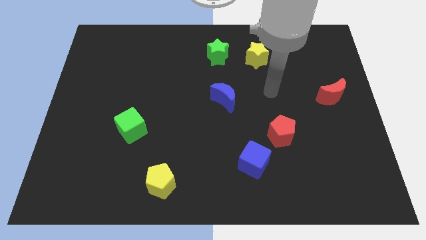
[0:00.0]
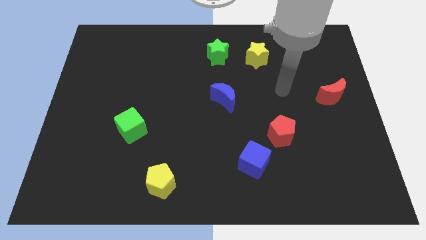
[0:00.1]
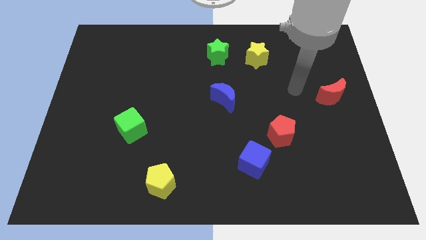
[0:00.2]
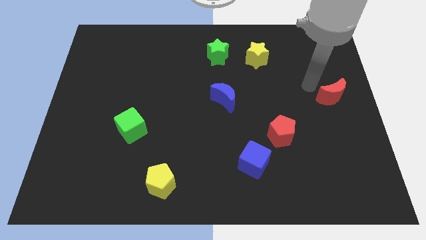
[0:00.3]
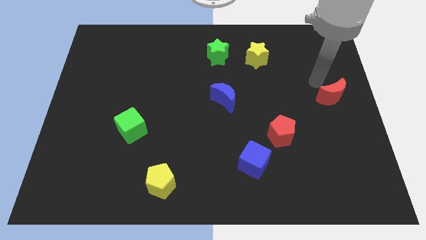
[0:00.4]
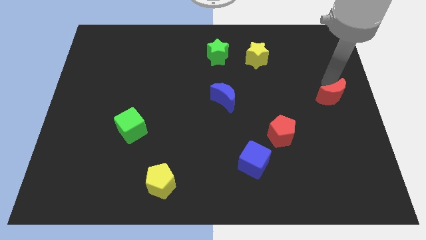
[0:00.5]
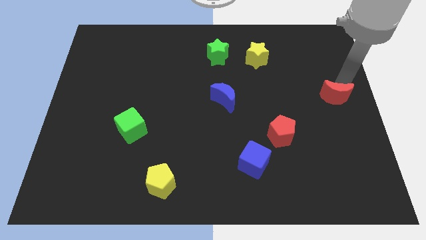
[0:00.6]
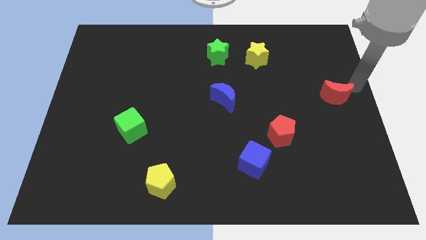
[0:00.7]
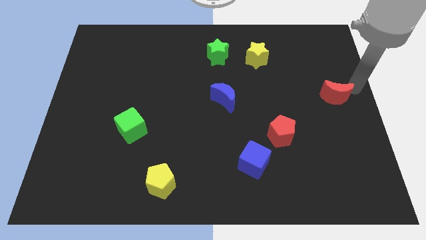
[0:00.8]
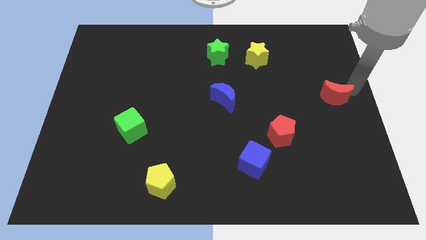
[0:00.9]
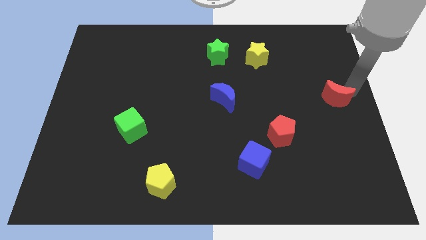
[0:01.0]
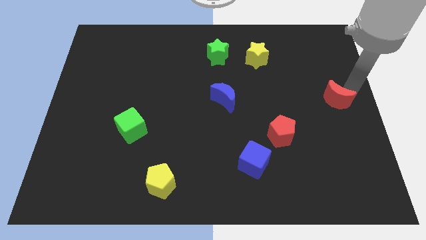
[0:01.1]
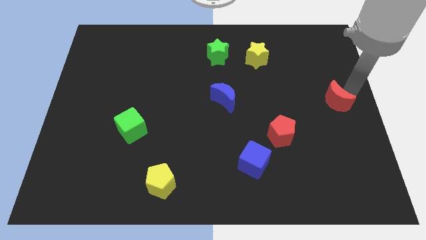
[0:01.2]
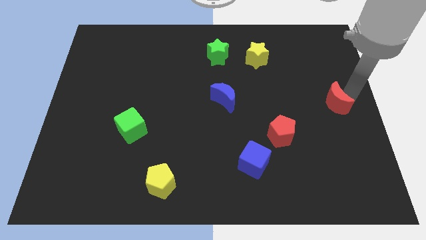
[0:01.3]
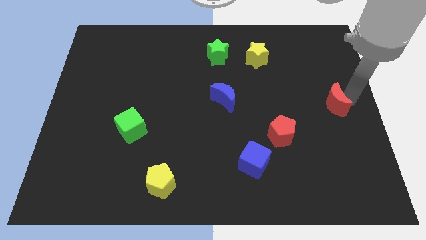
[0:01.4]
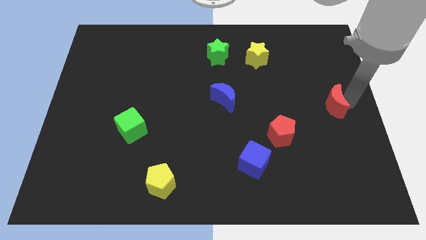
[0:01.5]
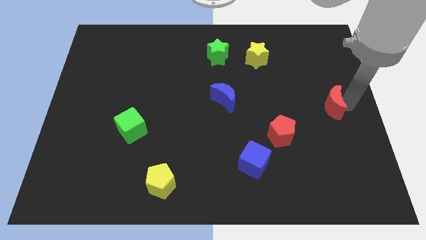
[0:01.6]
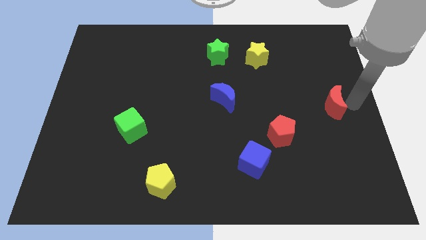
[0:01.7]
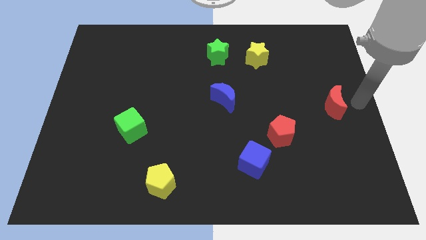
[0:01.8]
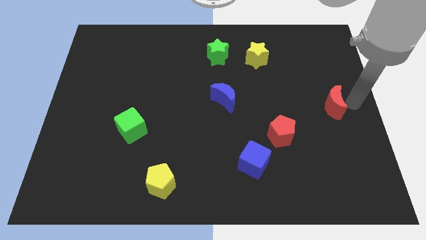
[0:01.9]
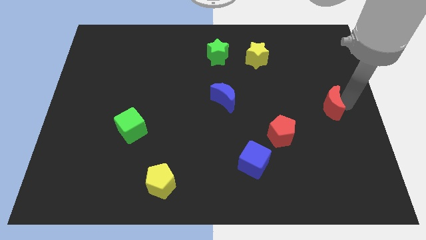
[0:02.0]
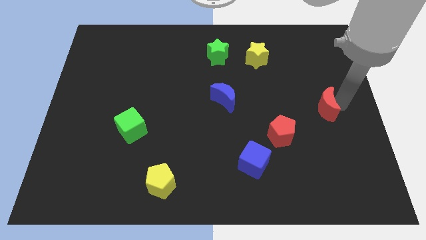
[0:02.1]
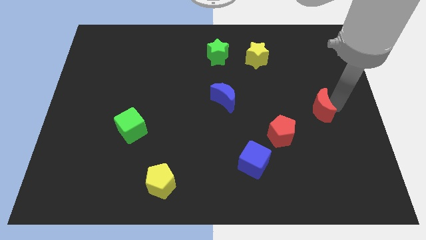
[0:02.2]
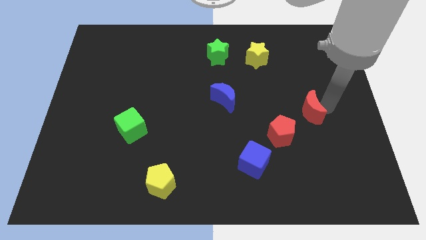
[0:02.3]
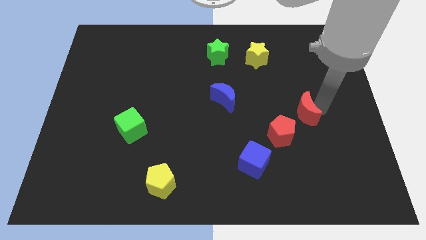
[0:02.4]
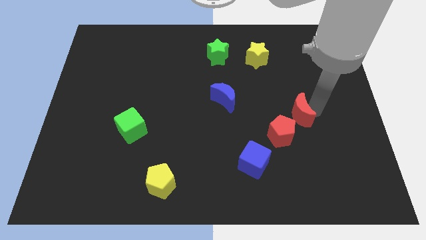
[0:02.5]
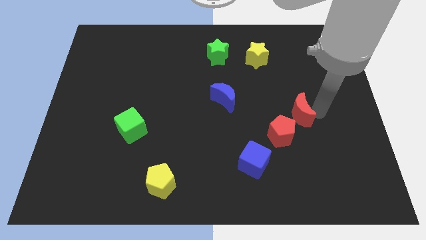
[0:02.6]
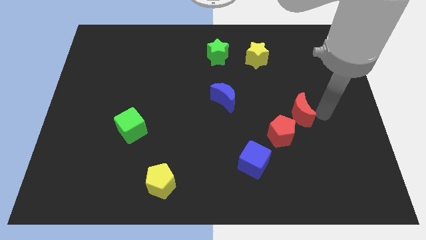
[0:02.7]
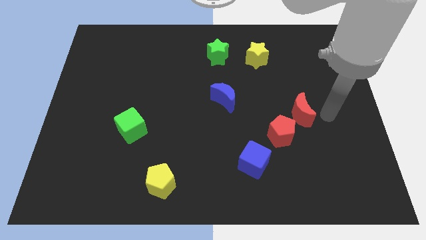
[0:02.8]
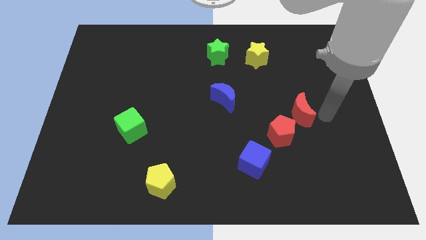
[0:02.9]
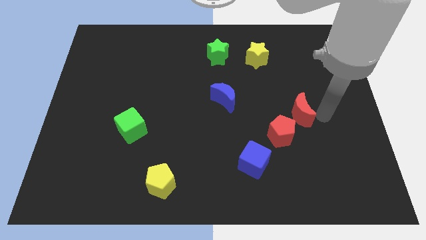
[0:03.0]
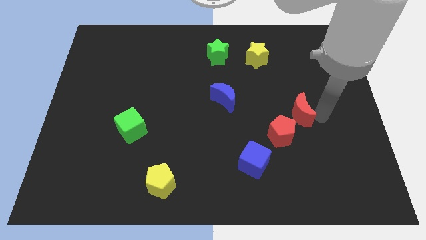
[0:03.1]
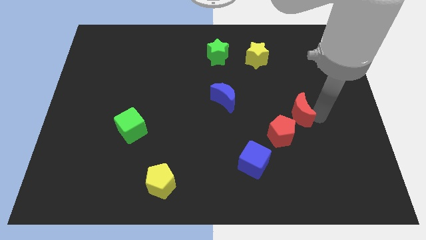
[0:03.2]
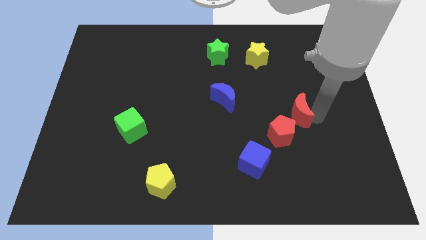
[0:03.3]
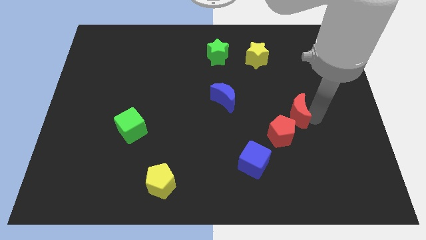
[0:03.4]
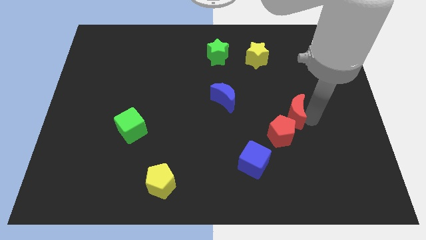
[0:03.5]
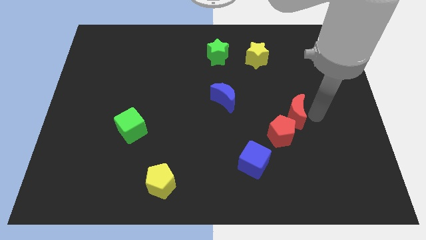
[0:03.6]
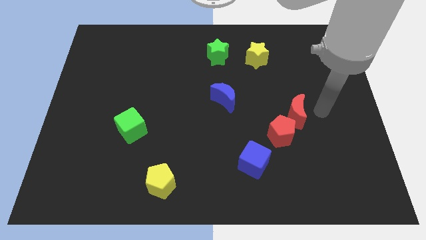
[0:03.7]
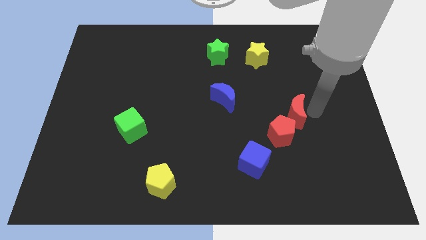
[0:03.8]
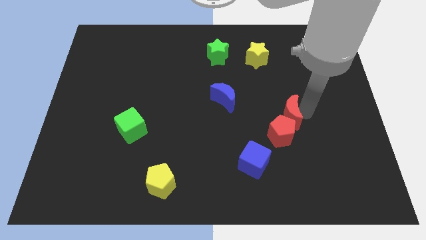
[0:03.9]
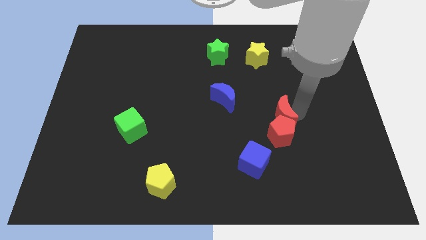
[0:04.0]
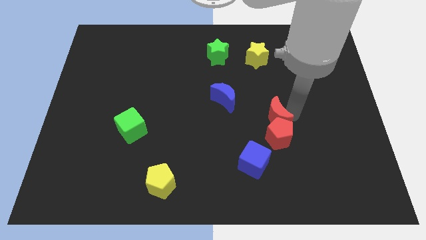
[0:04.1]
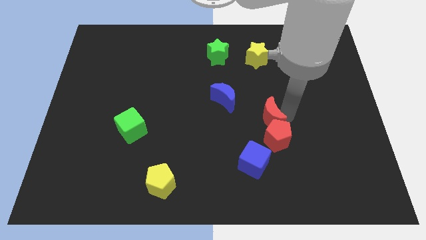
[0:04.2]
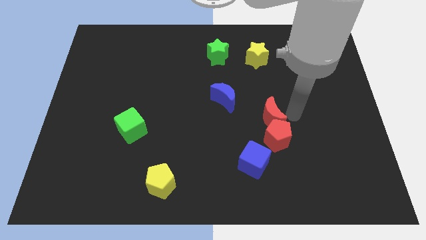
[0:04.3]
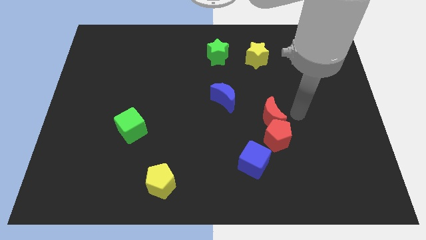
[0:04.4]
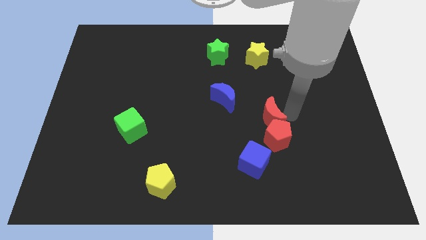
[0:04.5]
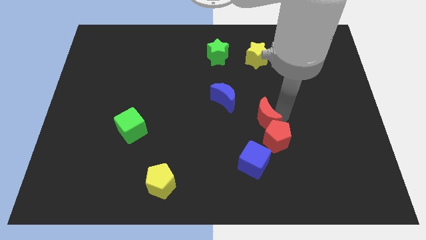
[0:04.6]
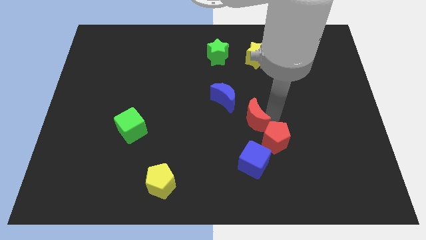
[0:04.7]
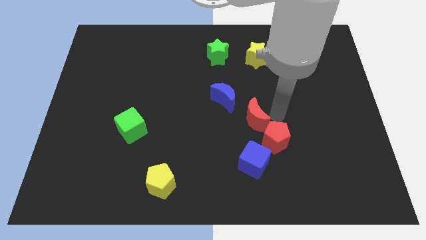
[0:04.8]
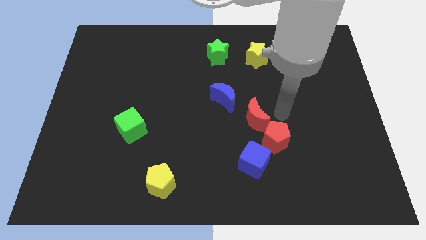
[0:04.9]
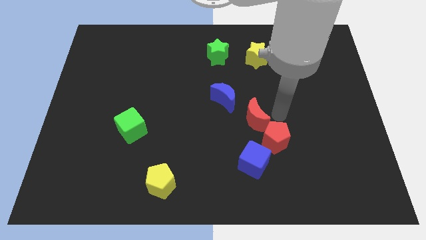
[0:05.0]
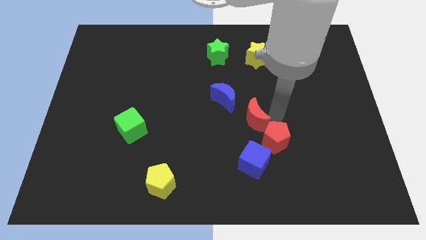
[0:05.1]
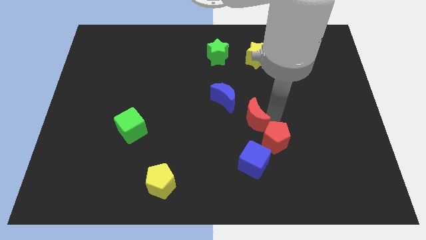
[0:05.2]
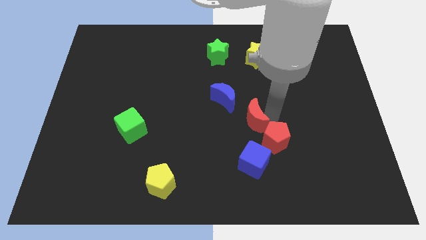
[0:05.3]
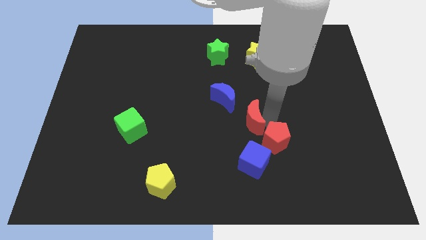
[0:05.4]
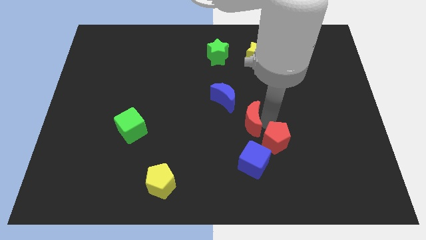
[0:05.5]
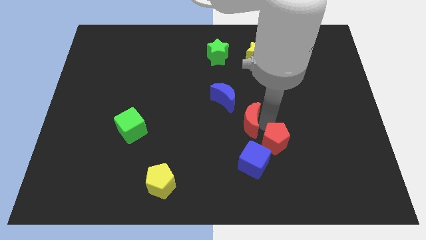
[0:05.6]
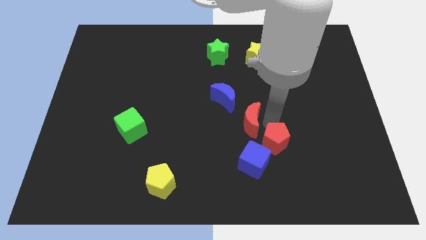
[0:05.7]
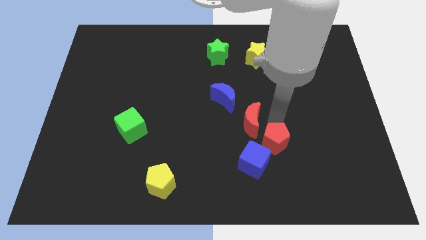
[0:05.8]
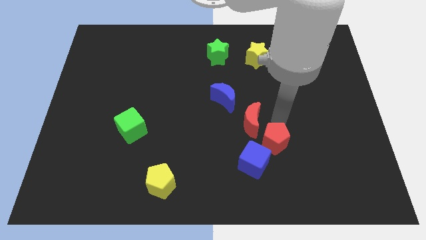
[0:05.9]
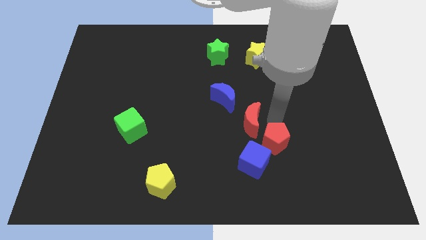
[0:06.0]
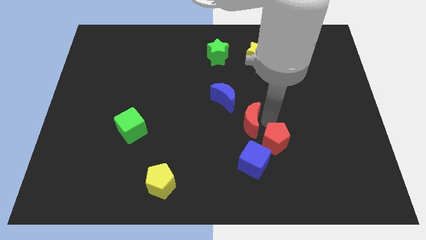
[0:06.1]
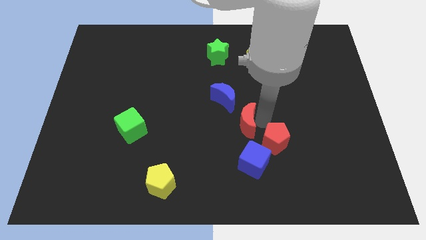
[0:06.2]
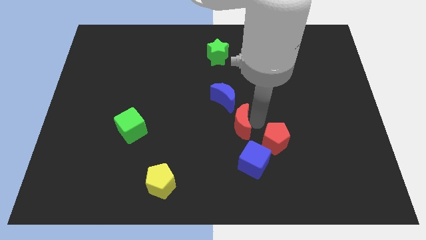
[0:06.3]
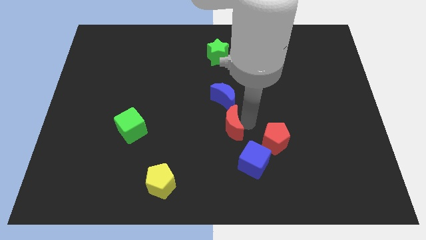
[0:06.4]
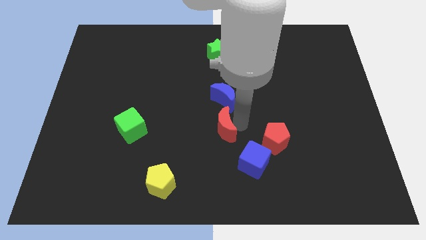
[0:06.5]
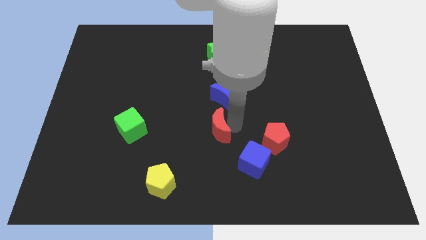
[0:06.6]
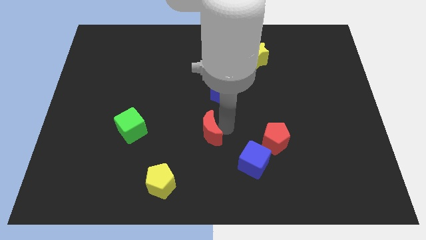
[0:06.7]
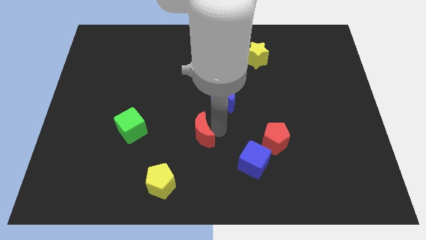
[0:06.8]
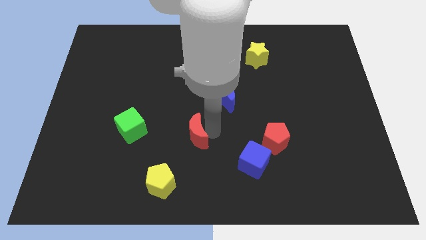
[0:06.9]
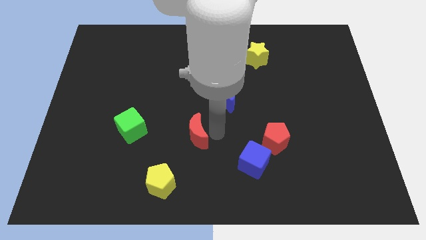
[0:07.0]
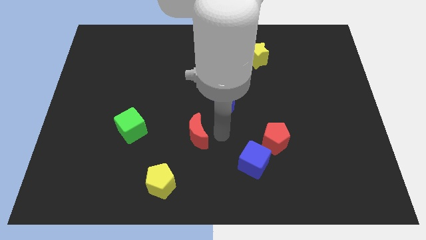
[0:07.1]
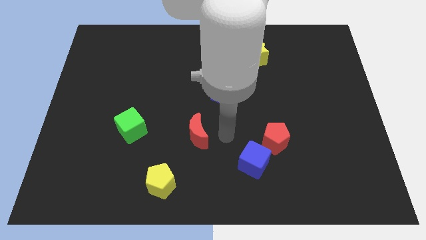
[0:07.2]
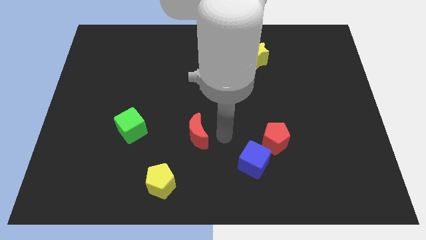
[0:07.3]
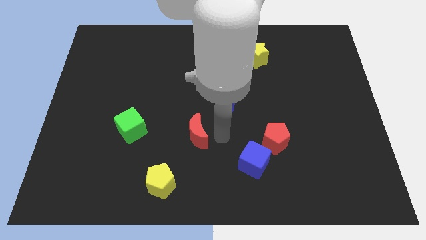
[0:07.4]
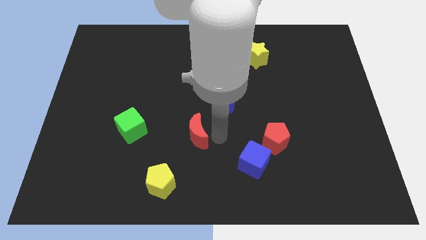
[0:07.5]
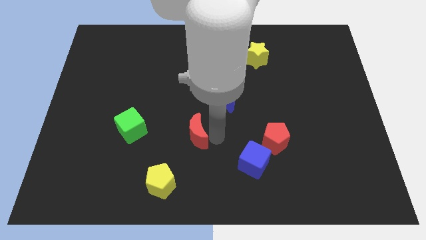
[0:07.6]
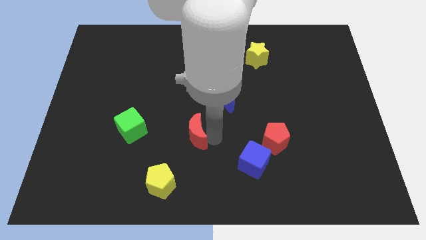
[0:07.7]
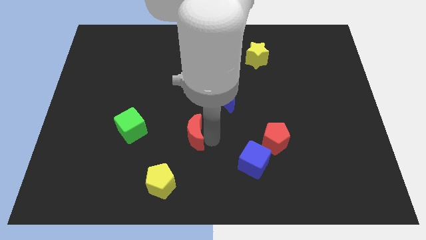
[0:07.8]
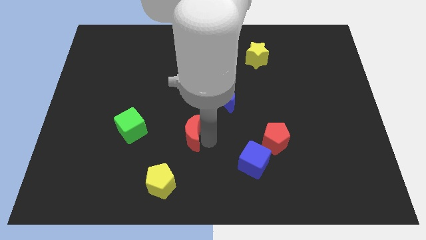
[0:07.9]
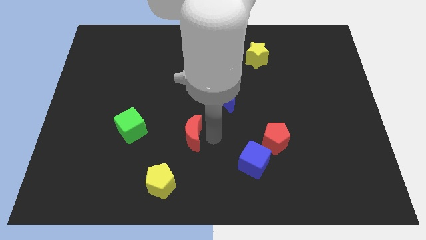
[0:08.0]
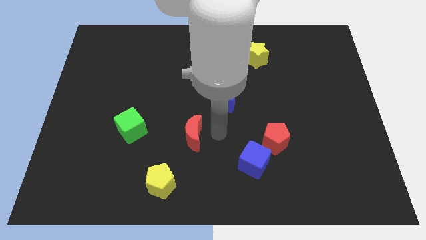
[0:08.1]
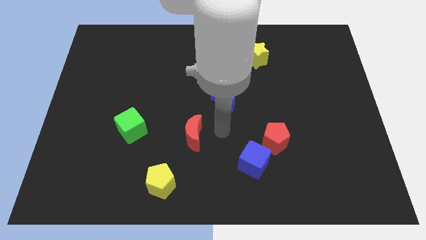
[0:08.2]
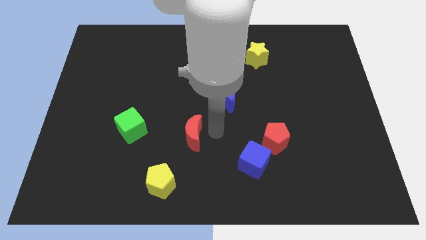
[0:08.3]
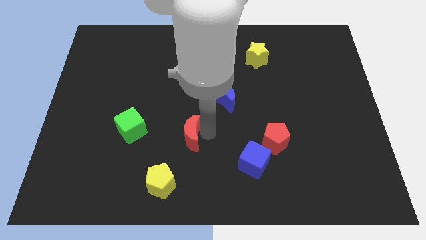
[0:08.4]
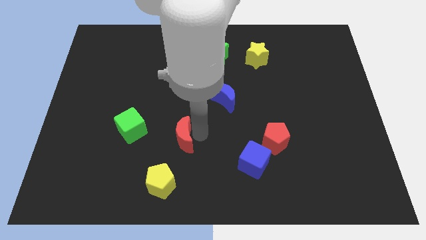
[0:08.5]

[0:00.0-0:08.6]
slide the red moon above the yellow pentagon
